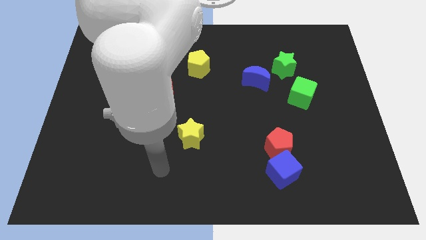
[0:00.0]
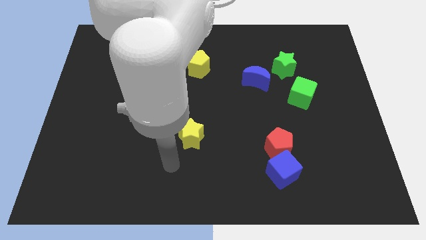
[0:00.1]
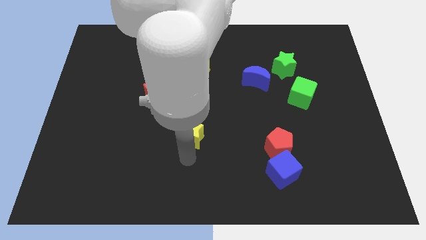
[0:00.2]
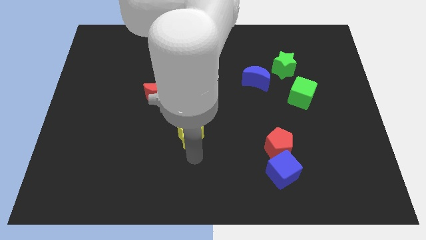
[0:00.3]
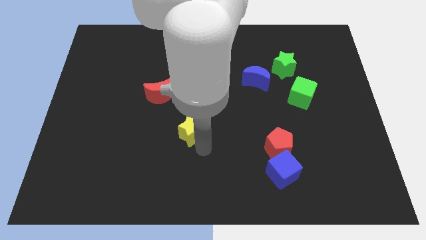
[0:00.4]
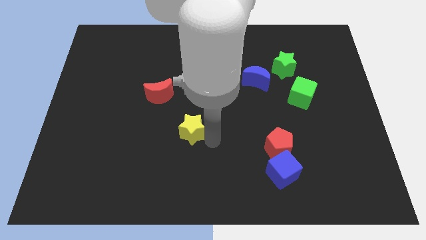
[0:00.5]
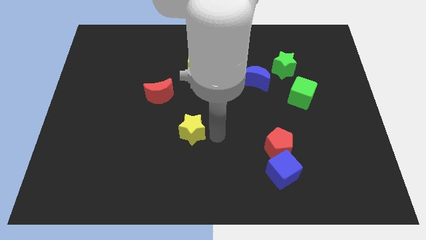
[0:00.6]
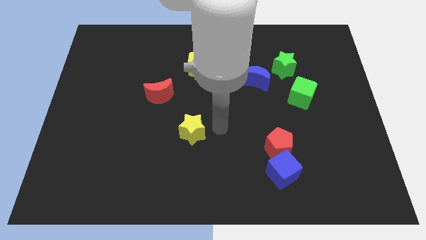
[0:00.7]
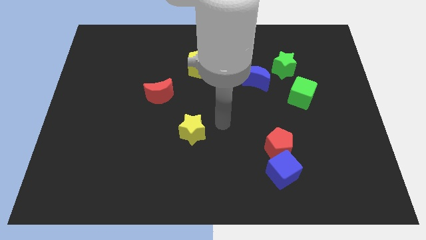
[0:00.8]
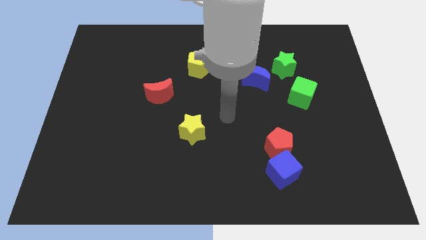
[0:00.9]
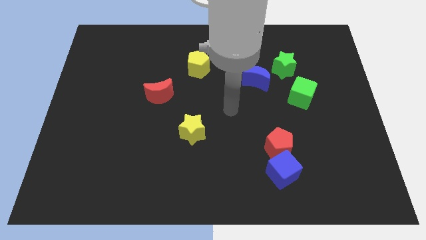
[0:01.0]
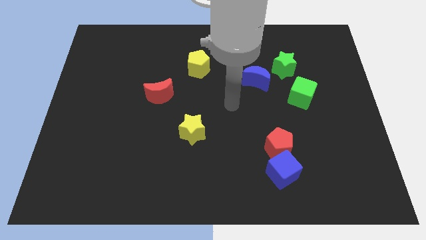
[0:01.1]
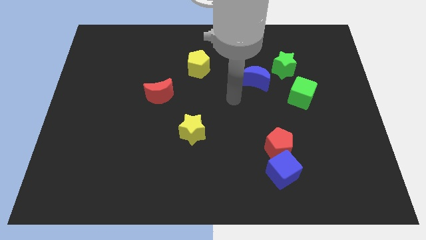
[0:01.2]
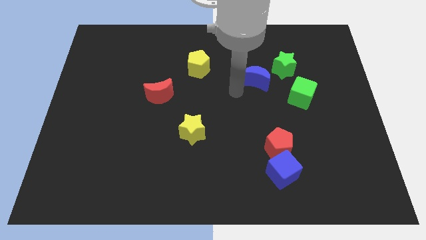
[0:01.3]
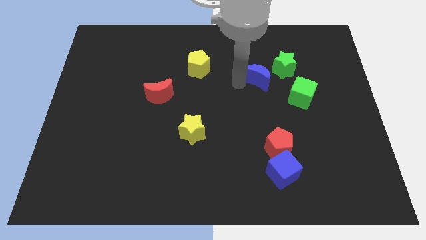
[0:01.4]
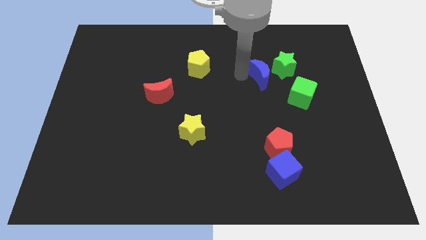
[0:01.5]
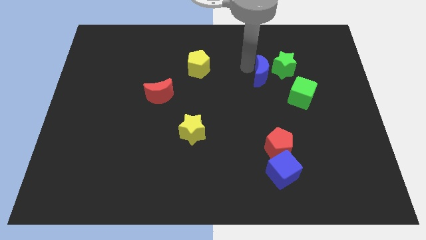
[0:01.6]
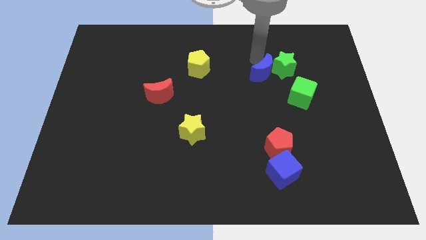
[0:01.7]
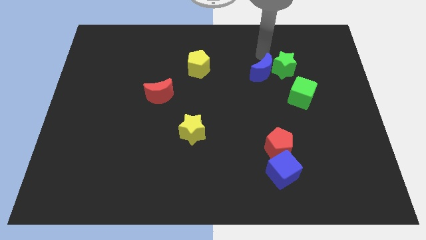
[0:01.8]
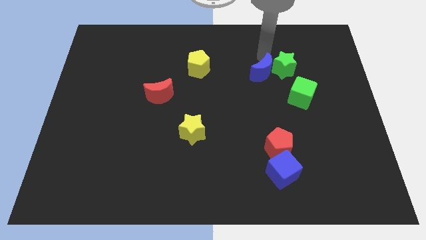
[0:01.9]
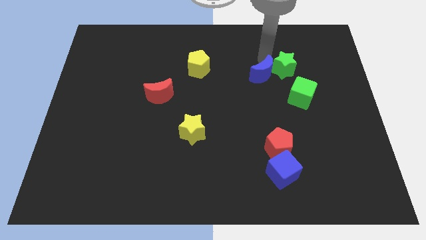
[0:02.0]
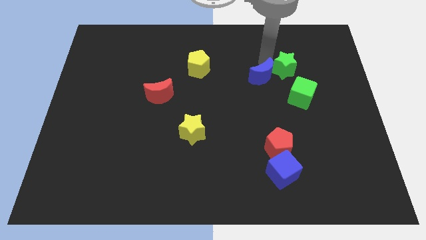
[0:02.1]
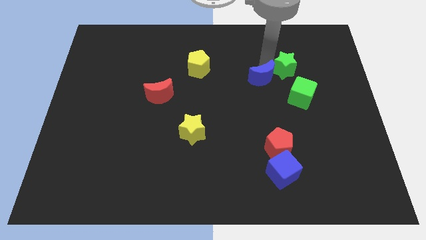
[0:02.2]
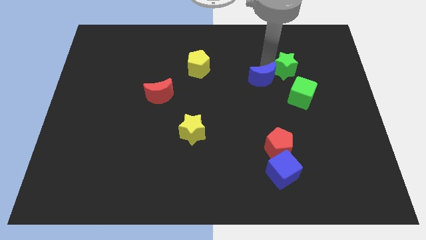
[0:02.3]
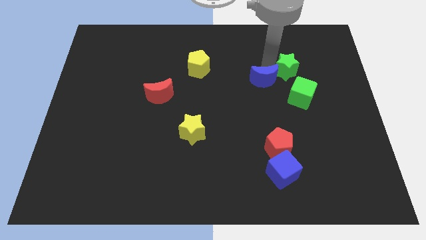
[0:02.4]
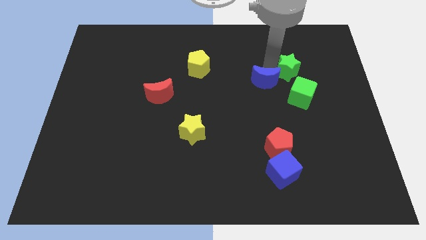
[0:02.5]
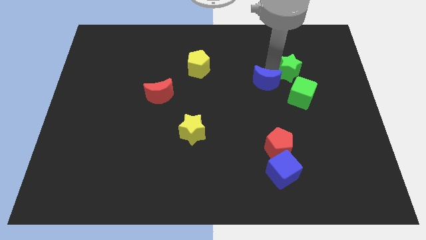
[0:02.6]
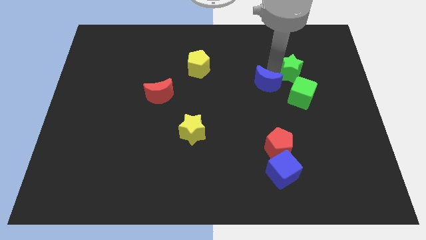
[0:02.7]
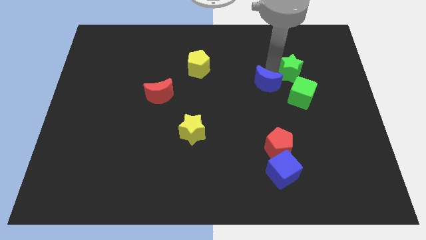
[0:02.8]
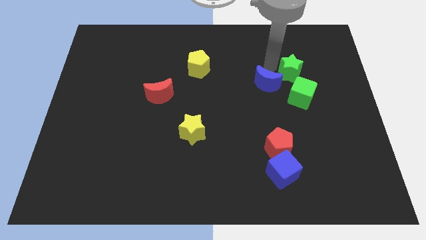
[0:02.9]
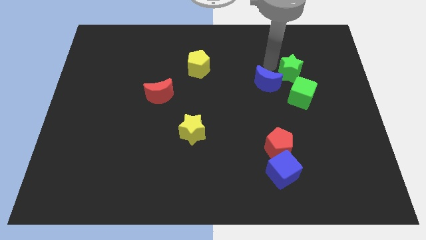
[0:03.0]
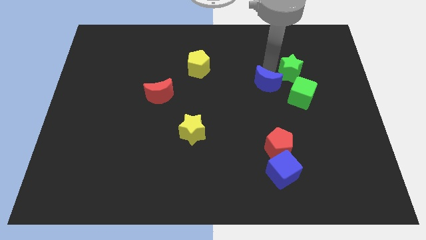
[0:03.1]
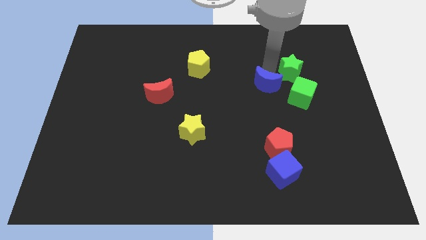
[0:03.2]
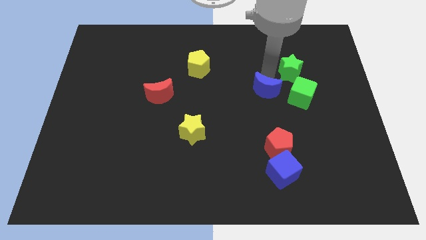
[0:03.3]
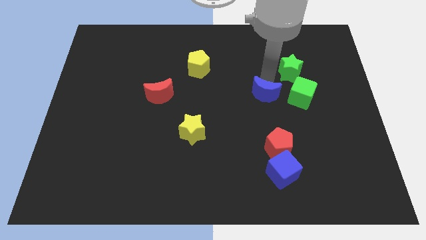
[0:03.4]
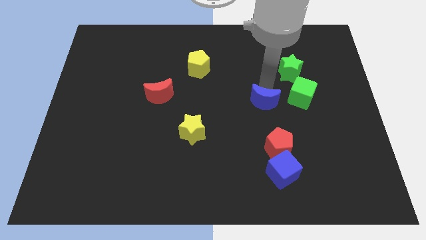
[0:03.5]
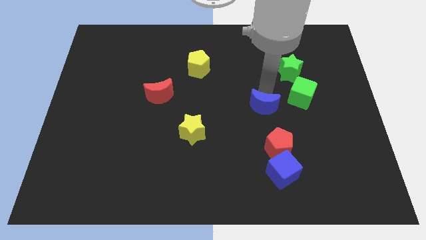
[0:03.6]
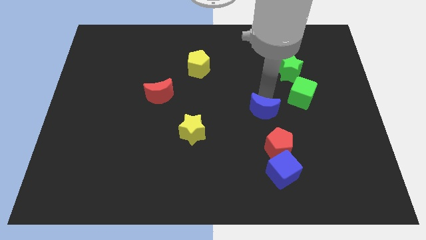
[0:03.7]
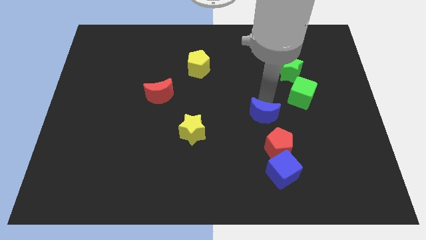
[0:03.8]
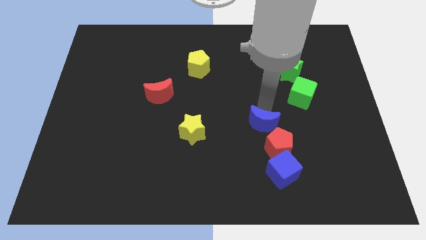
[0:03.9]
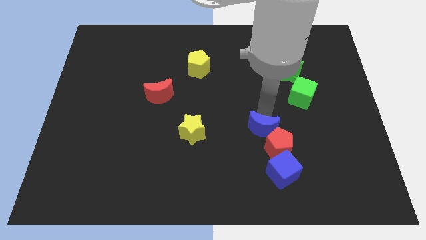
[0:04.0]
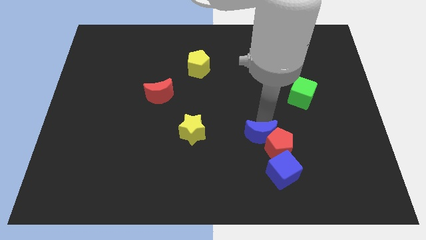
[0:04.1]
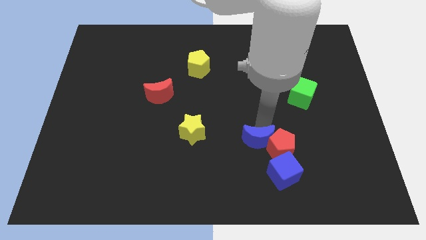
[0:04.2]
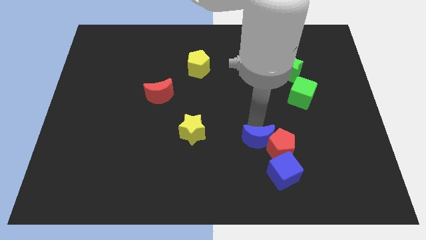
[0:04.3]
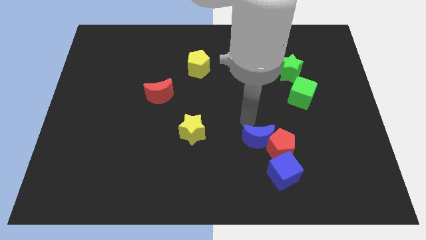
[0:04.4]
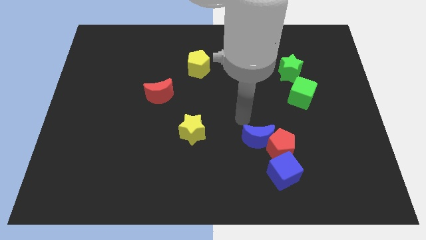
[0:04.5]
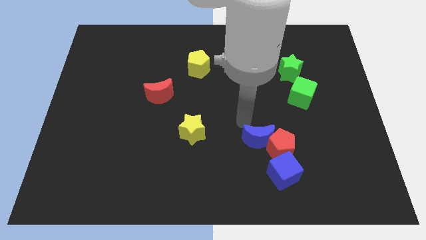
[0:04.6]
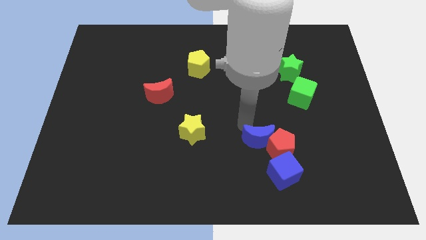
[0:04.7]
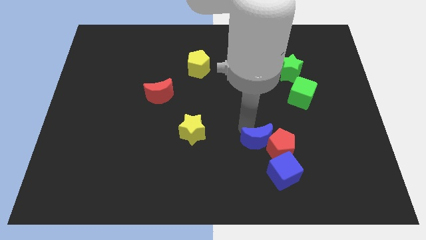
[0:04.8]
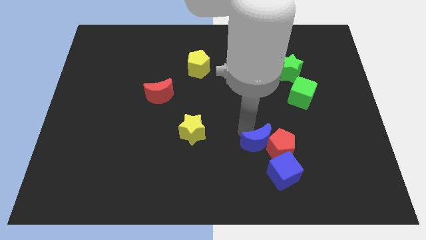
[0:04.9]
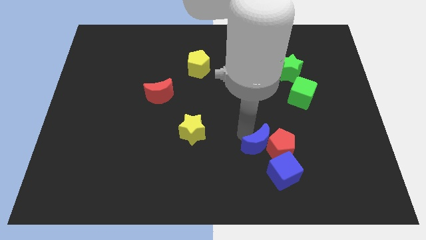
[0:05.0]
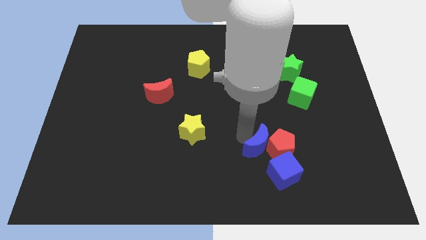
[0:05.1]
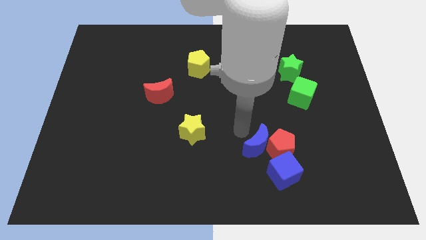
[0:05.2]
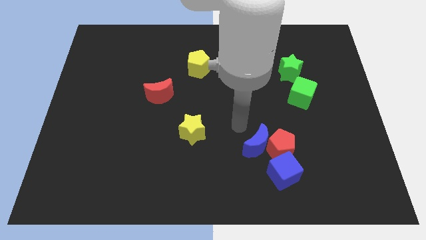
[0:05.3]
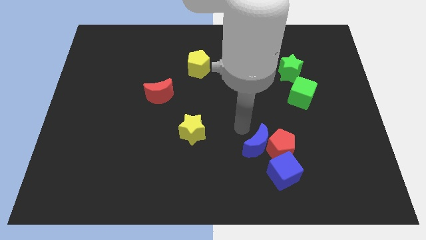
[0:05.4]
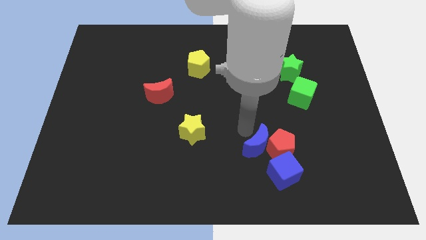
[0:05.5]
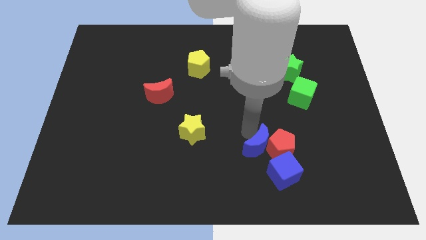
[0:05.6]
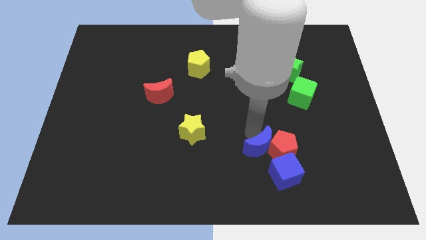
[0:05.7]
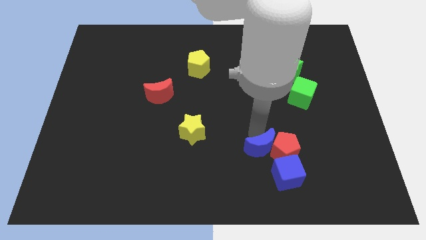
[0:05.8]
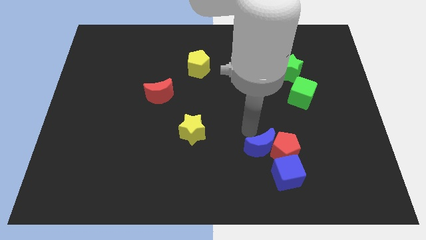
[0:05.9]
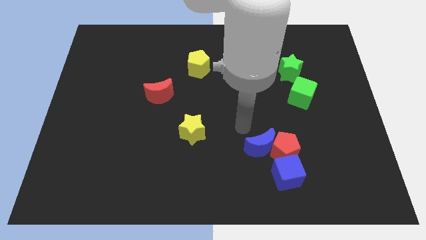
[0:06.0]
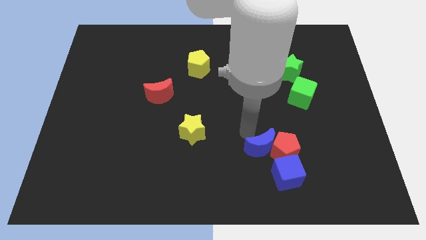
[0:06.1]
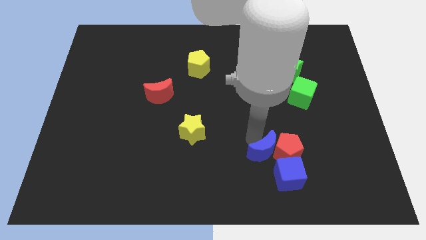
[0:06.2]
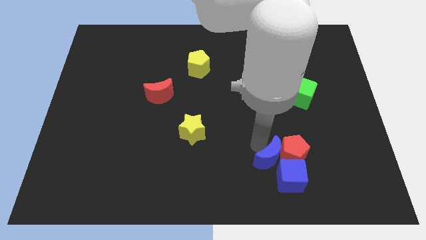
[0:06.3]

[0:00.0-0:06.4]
move the blue moon next to the blue cube

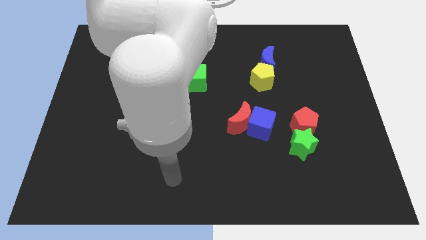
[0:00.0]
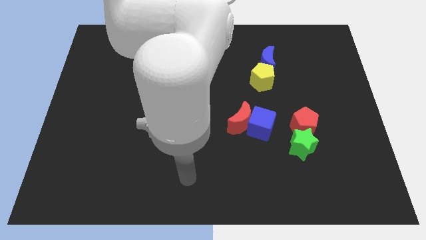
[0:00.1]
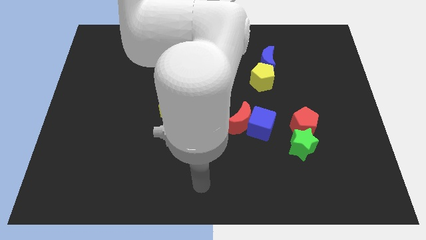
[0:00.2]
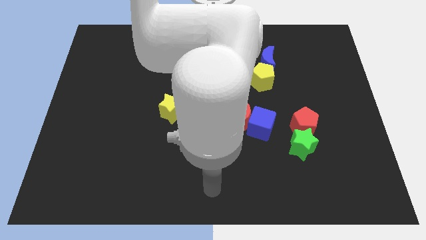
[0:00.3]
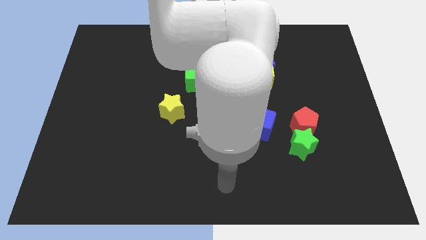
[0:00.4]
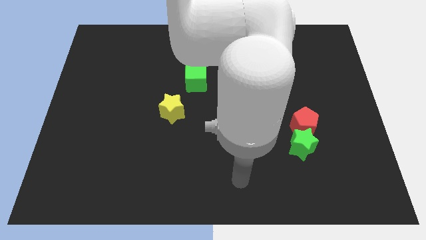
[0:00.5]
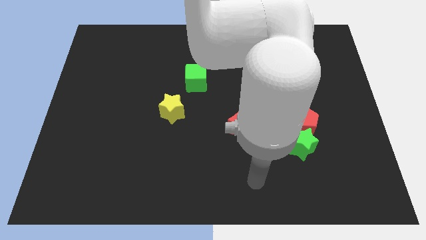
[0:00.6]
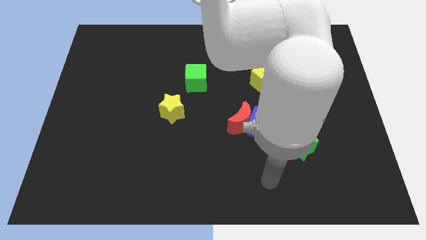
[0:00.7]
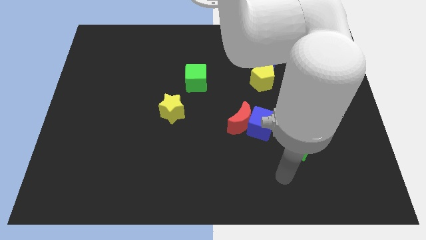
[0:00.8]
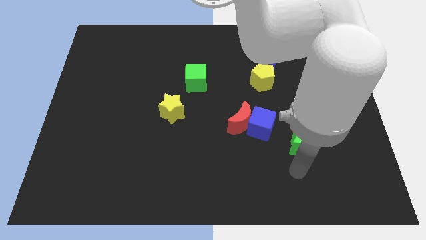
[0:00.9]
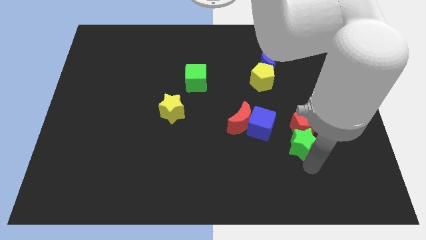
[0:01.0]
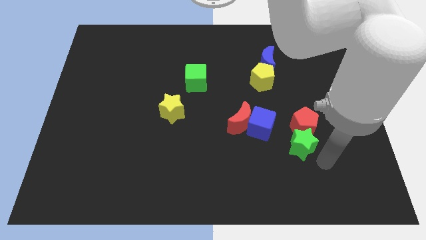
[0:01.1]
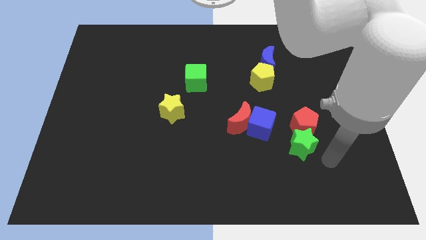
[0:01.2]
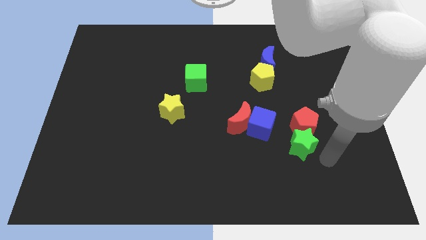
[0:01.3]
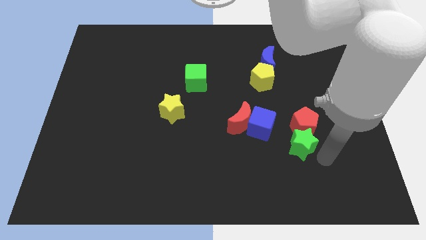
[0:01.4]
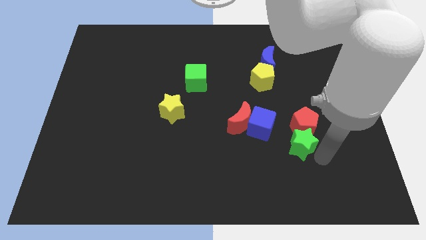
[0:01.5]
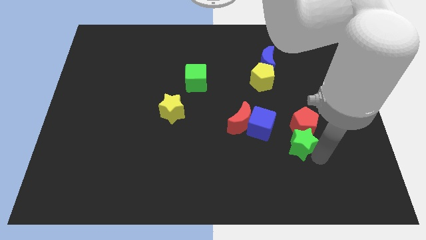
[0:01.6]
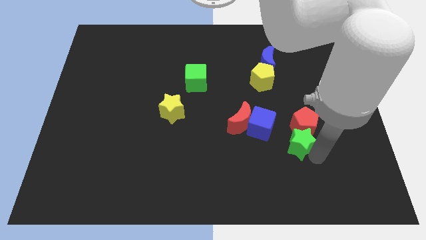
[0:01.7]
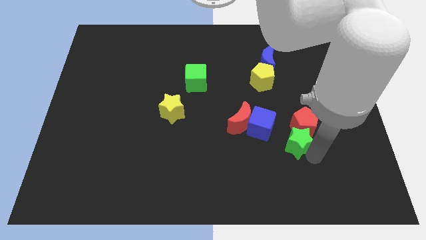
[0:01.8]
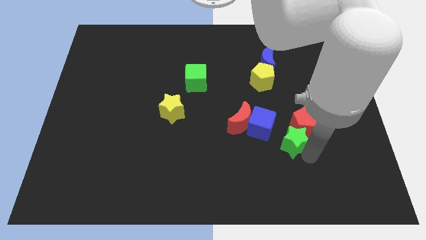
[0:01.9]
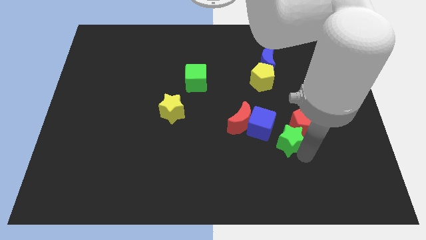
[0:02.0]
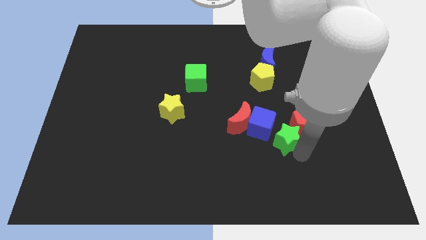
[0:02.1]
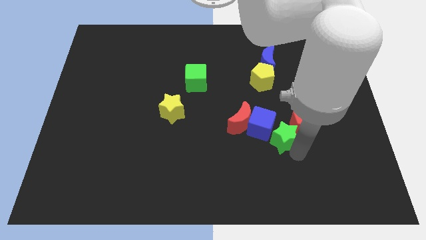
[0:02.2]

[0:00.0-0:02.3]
push the green star to the blue cube
